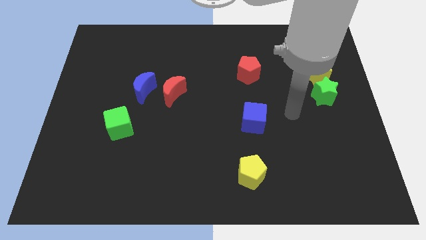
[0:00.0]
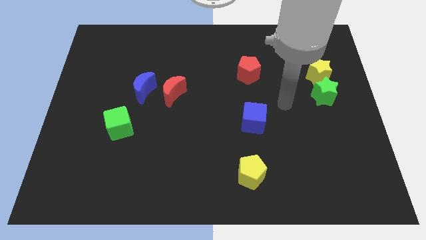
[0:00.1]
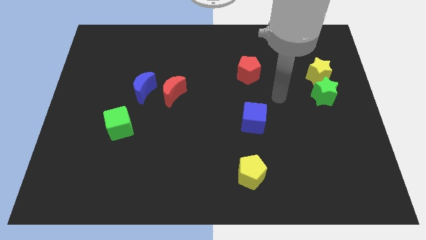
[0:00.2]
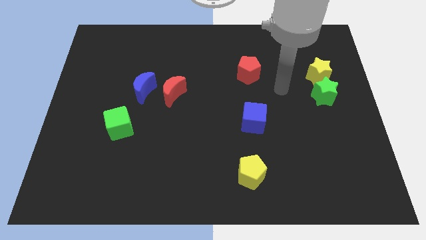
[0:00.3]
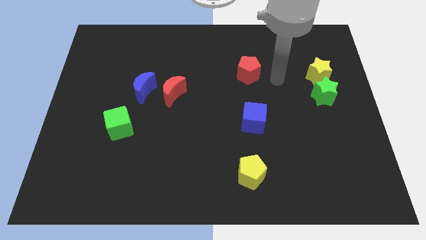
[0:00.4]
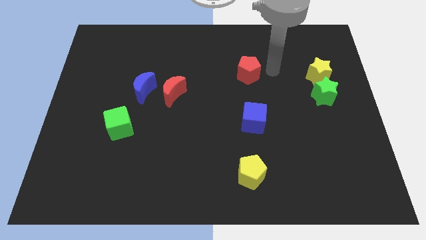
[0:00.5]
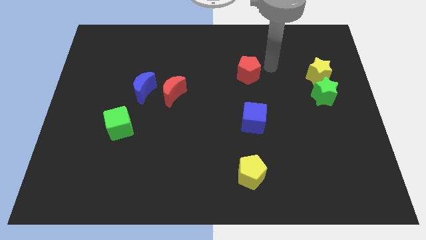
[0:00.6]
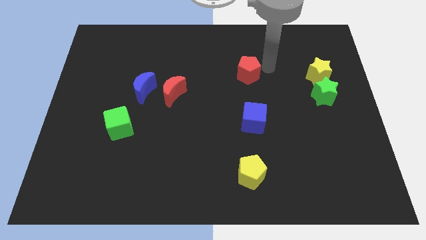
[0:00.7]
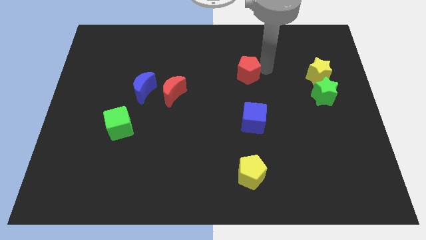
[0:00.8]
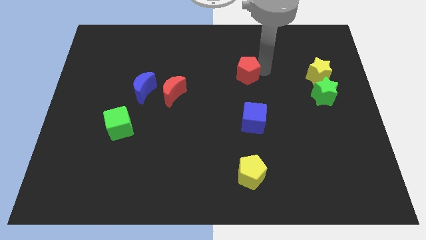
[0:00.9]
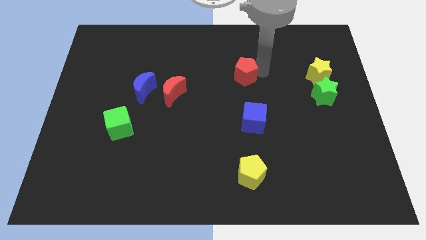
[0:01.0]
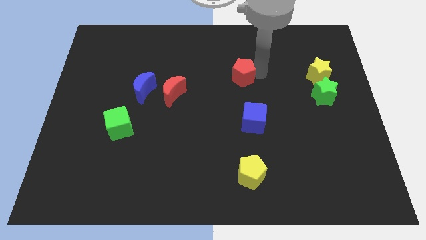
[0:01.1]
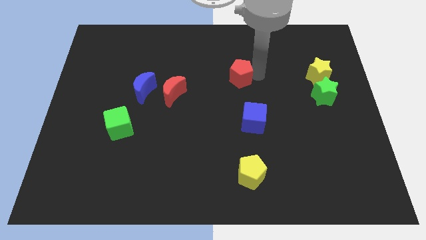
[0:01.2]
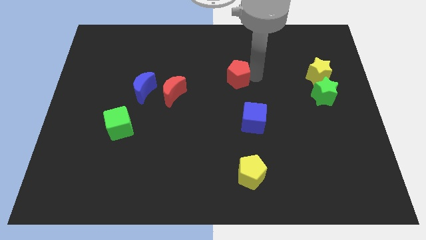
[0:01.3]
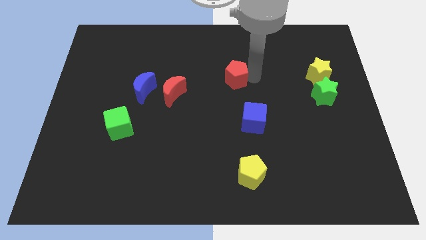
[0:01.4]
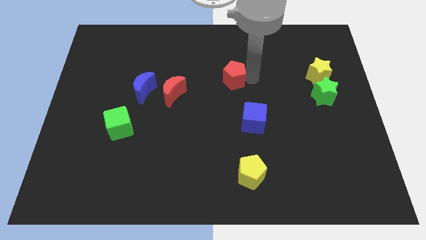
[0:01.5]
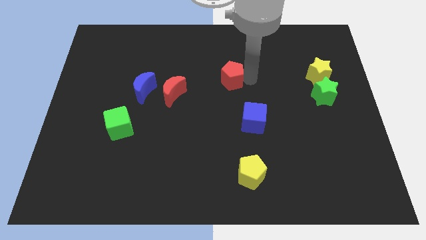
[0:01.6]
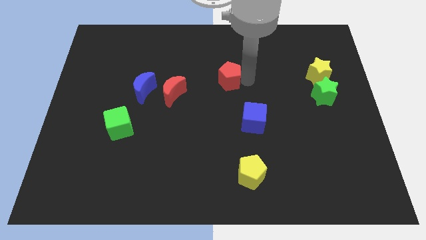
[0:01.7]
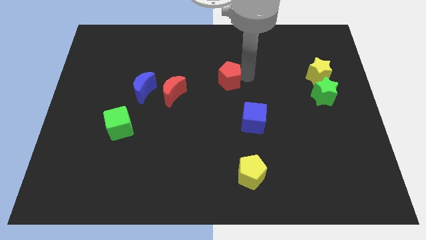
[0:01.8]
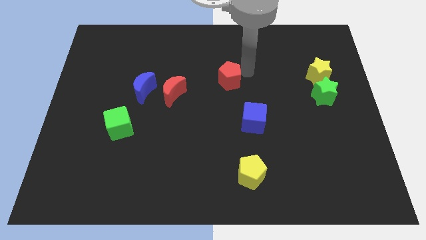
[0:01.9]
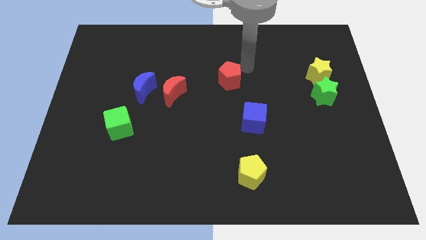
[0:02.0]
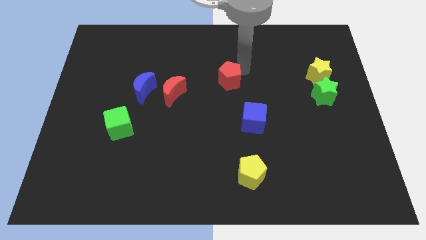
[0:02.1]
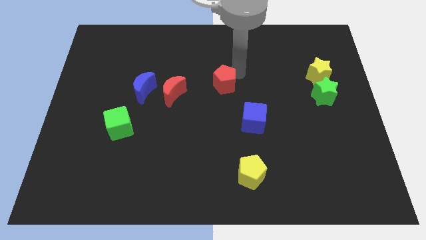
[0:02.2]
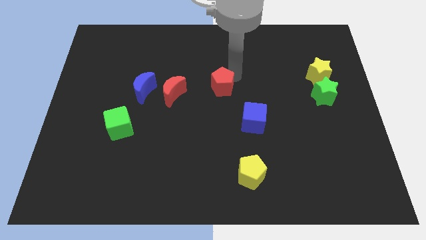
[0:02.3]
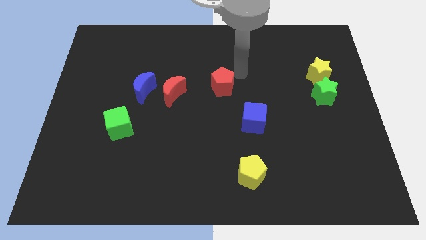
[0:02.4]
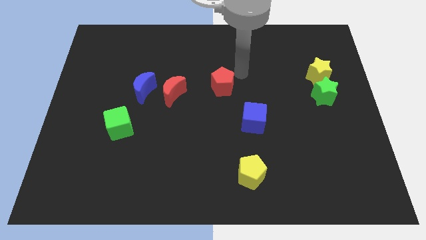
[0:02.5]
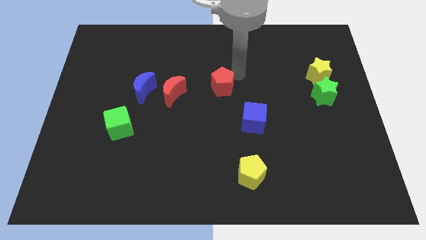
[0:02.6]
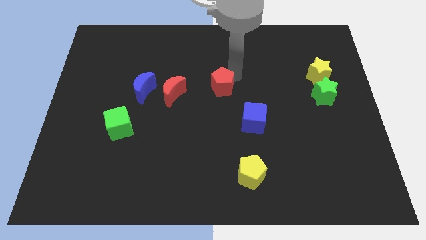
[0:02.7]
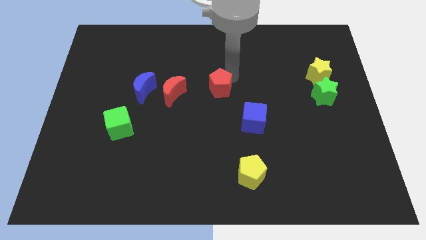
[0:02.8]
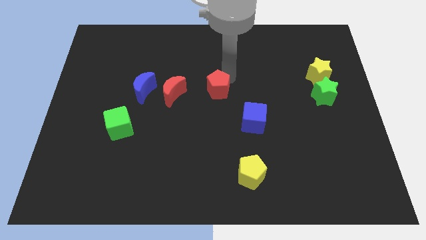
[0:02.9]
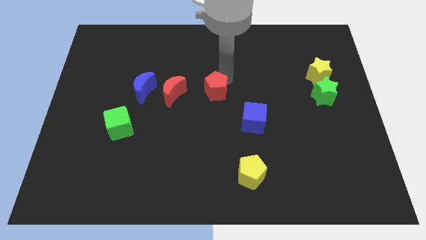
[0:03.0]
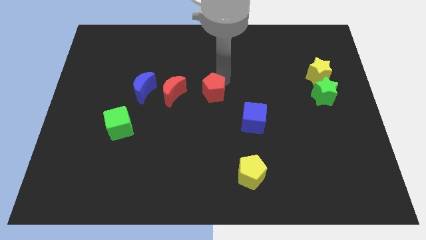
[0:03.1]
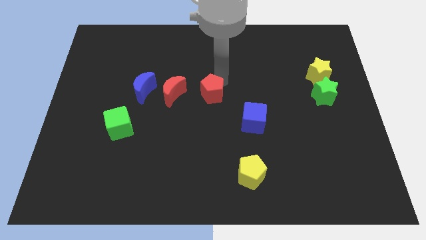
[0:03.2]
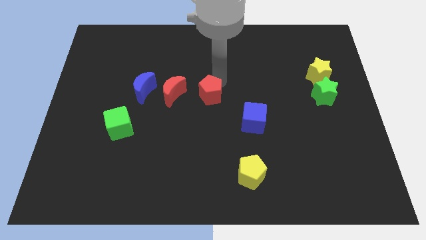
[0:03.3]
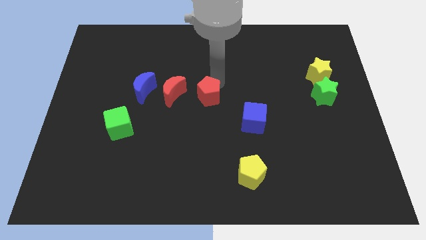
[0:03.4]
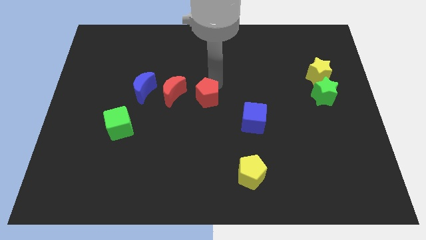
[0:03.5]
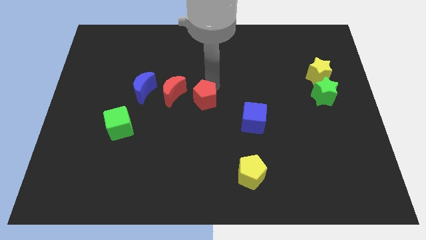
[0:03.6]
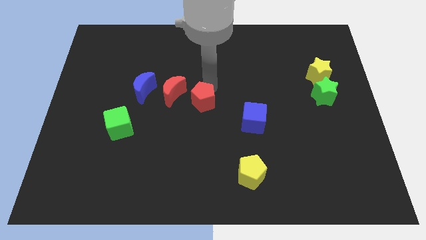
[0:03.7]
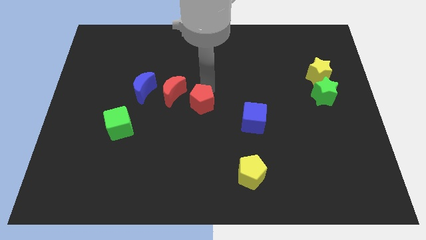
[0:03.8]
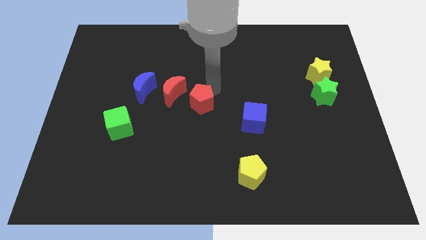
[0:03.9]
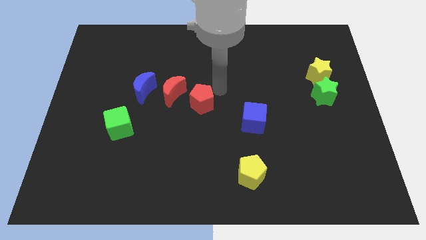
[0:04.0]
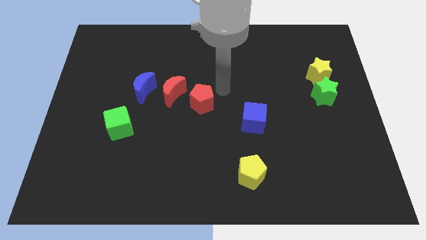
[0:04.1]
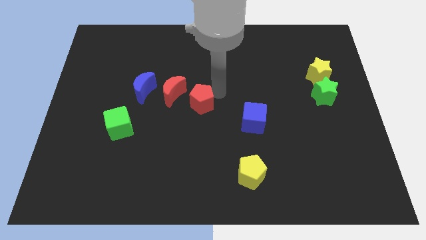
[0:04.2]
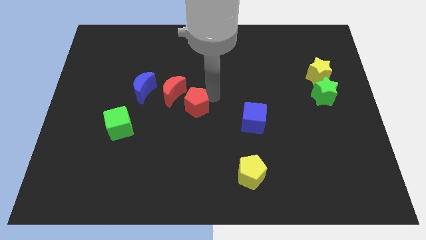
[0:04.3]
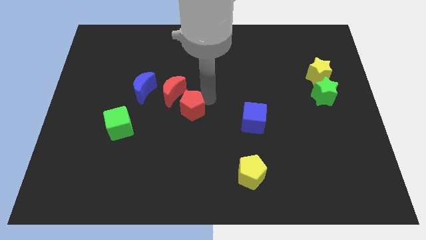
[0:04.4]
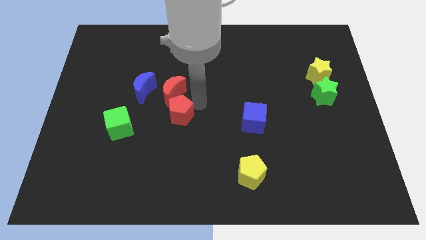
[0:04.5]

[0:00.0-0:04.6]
slide the red pentagon down and to the left

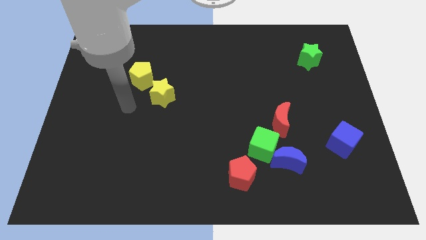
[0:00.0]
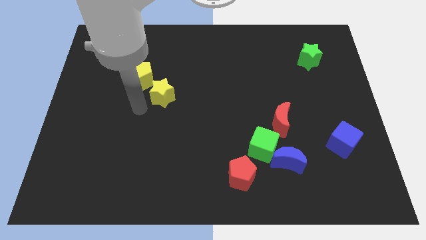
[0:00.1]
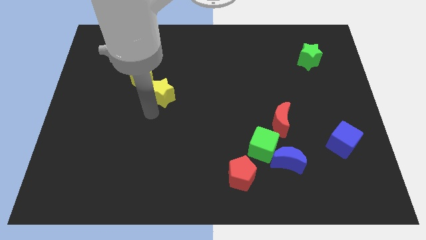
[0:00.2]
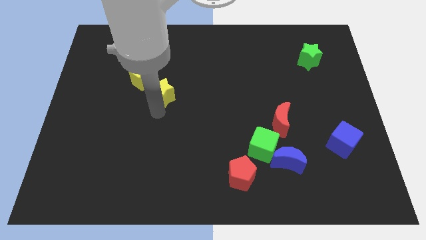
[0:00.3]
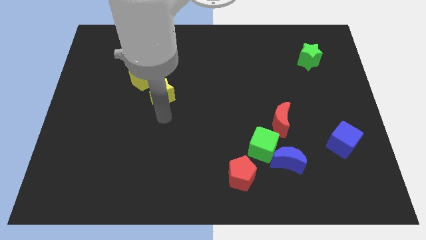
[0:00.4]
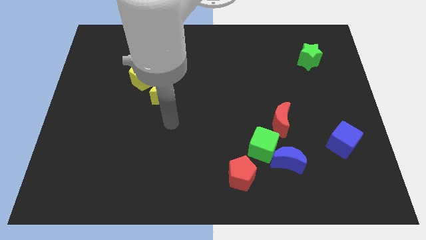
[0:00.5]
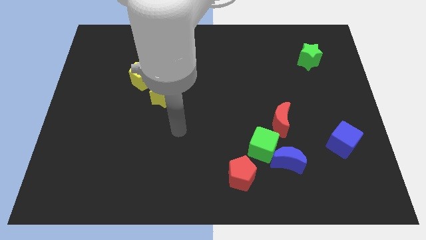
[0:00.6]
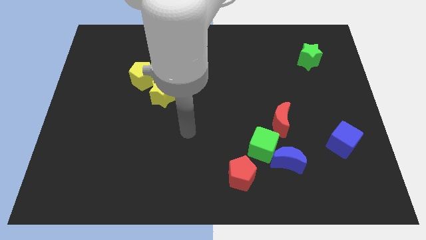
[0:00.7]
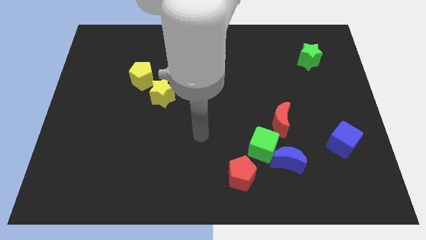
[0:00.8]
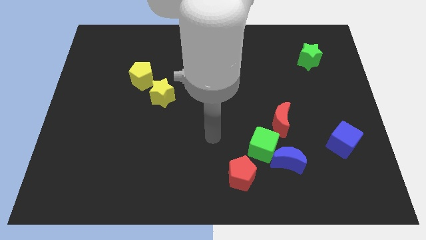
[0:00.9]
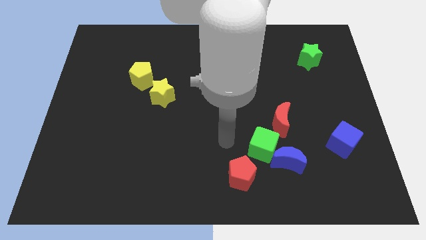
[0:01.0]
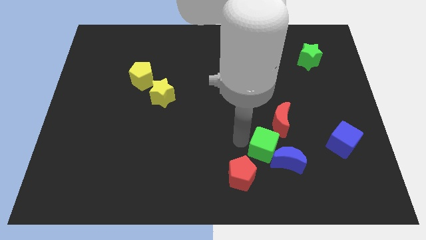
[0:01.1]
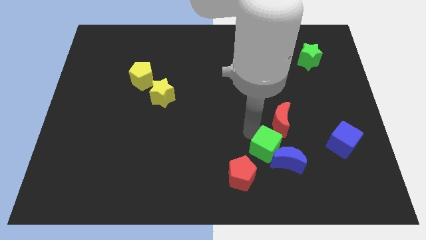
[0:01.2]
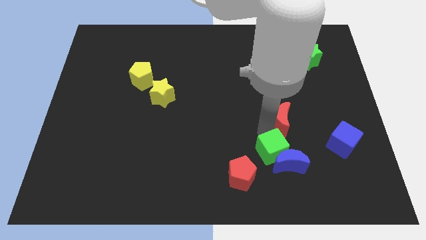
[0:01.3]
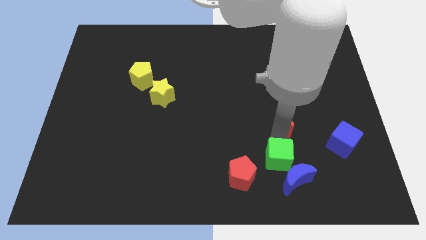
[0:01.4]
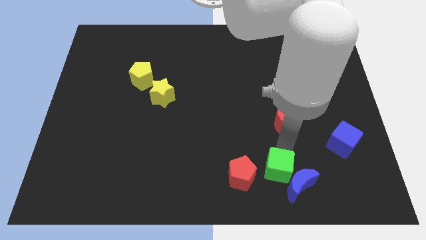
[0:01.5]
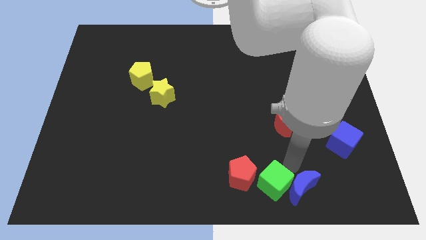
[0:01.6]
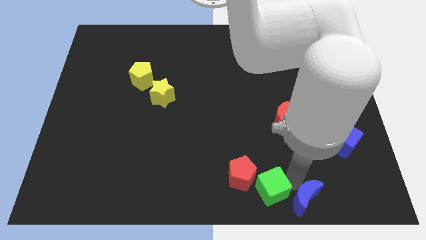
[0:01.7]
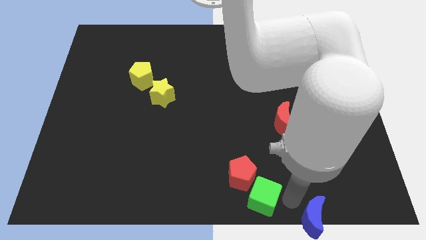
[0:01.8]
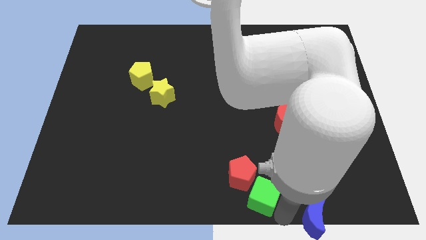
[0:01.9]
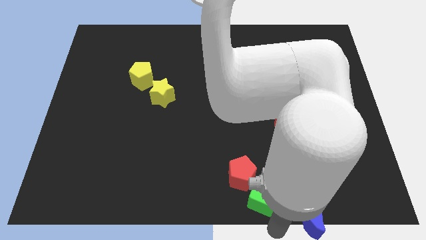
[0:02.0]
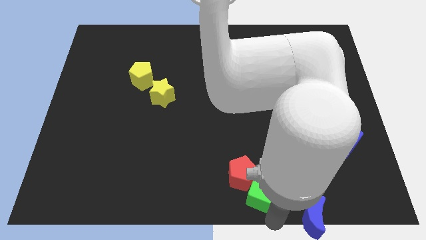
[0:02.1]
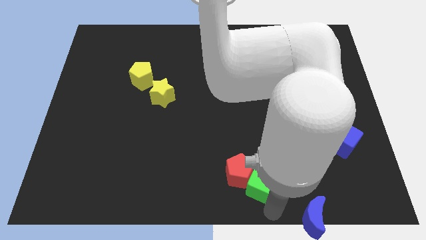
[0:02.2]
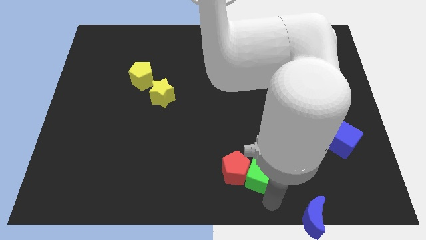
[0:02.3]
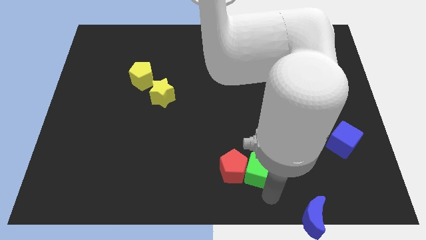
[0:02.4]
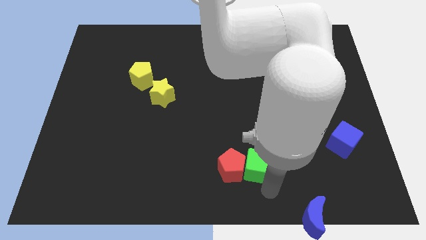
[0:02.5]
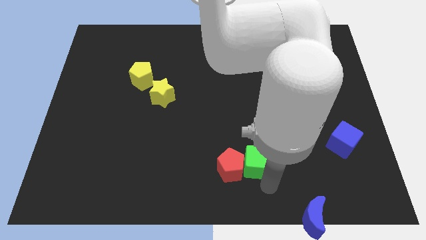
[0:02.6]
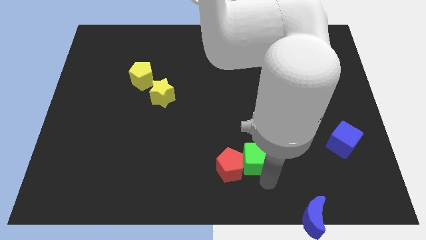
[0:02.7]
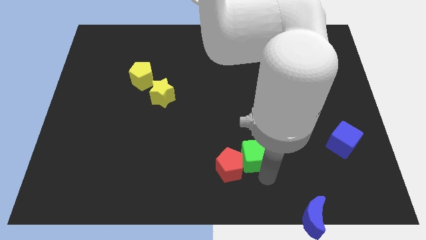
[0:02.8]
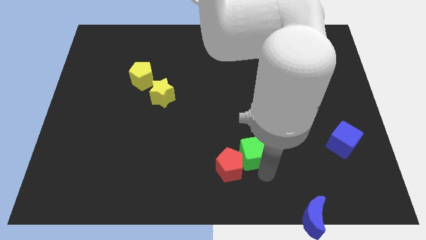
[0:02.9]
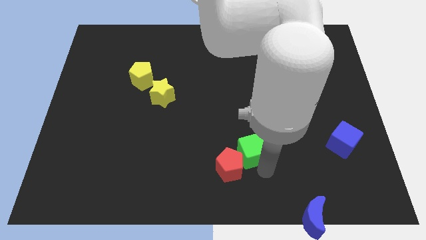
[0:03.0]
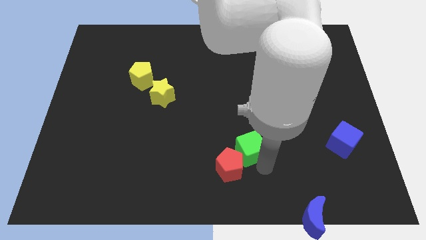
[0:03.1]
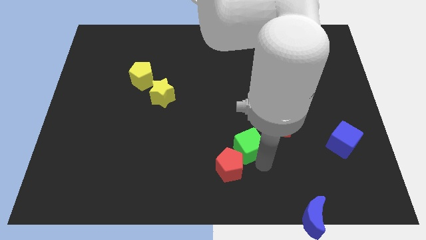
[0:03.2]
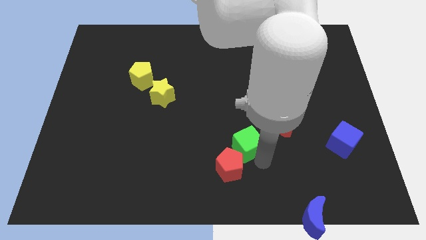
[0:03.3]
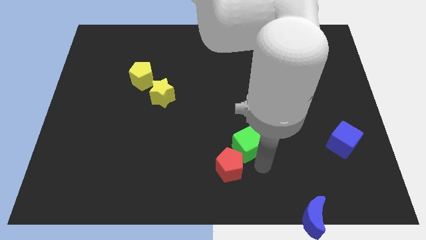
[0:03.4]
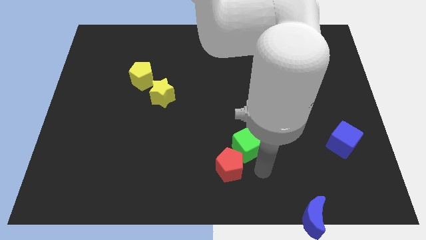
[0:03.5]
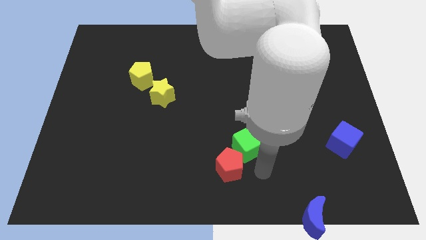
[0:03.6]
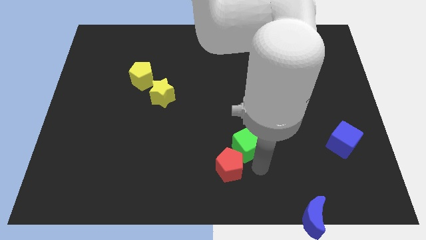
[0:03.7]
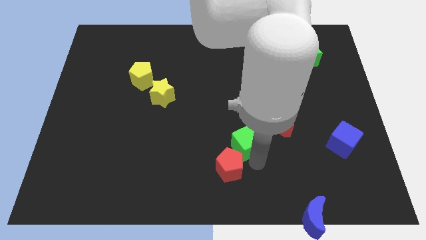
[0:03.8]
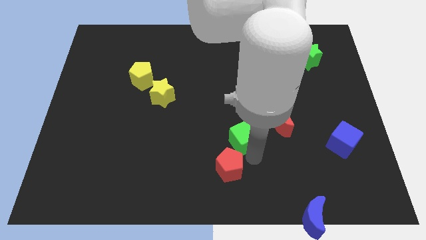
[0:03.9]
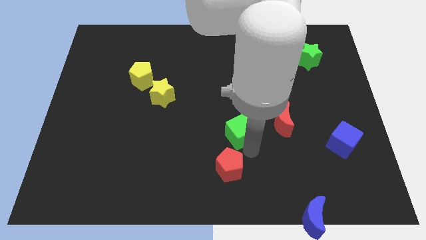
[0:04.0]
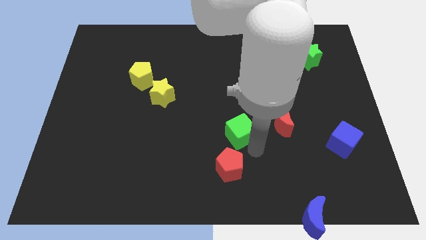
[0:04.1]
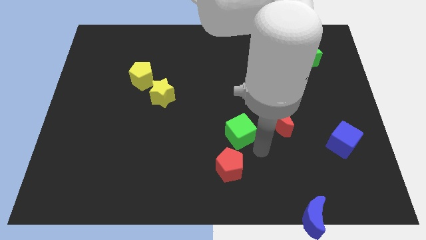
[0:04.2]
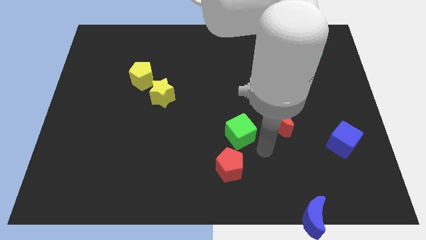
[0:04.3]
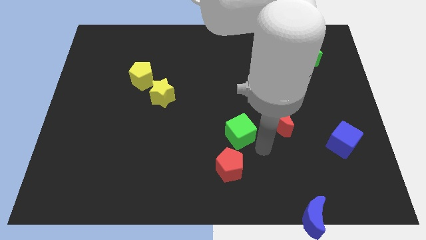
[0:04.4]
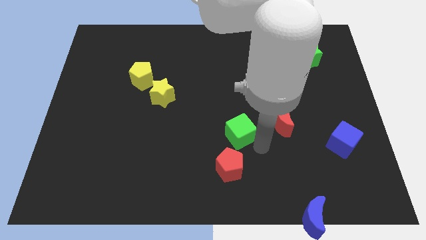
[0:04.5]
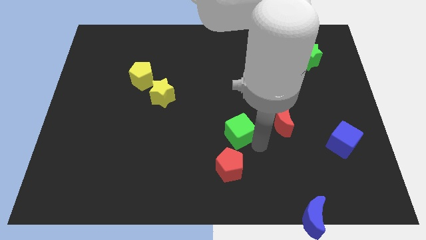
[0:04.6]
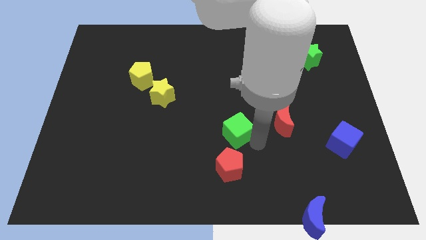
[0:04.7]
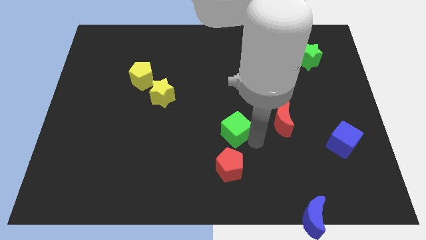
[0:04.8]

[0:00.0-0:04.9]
move the green cube a little bit up and left
